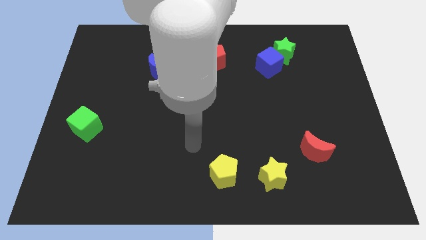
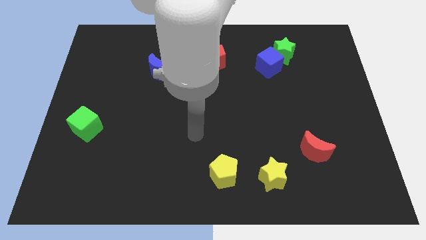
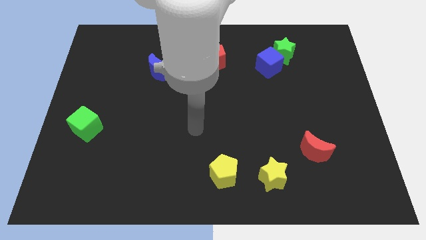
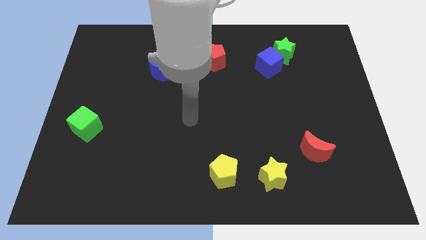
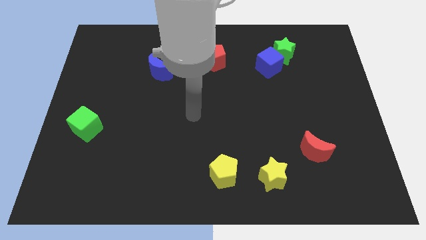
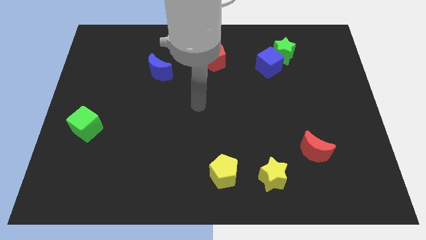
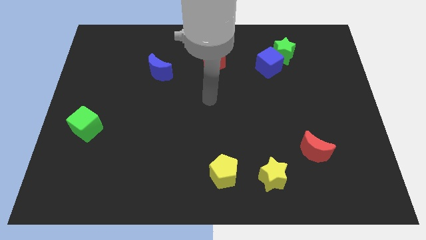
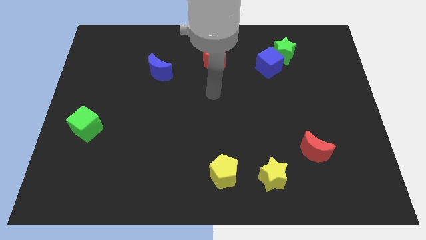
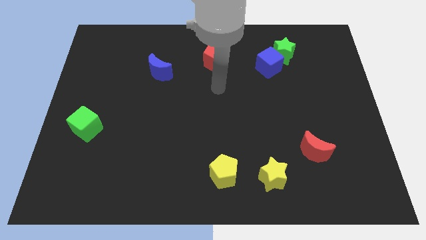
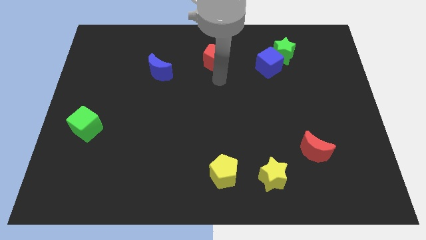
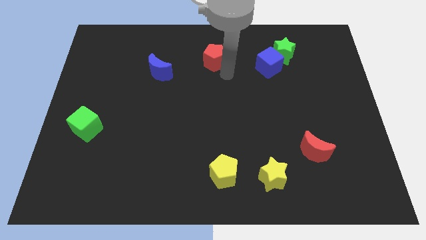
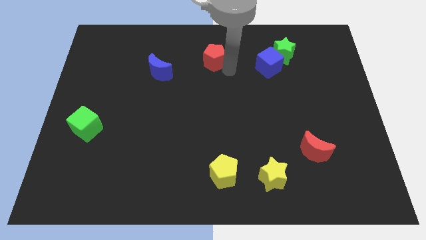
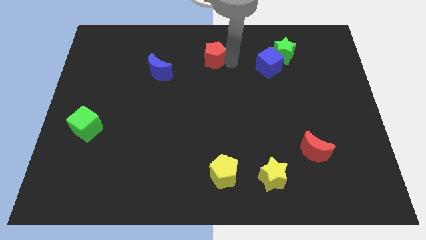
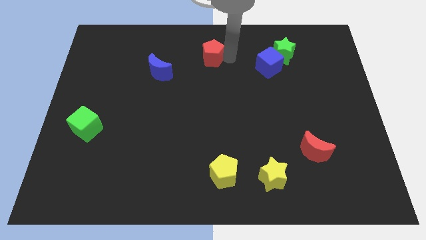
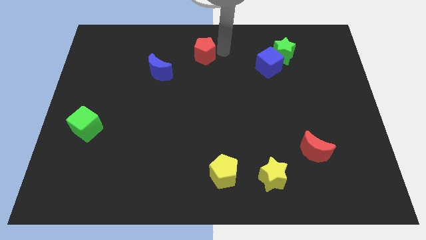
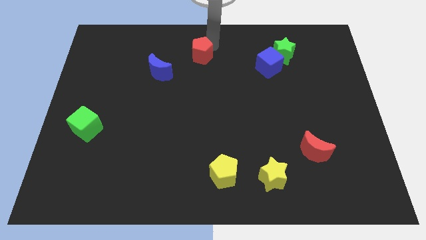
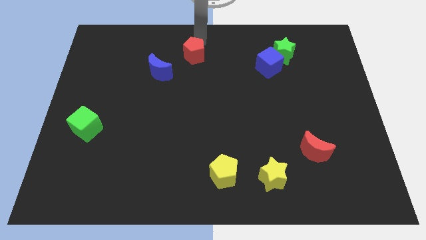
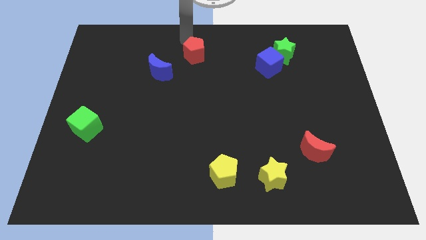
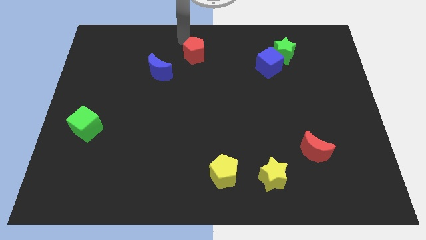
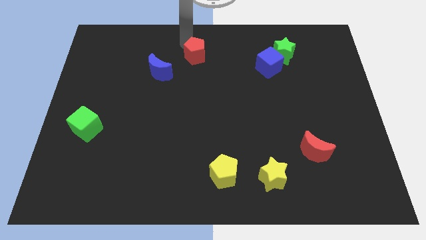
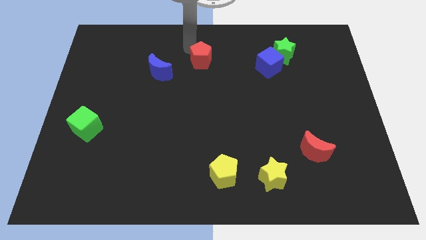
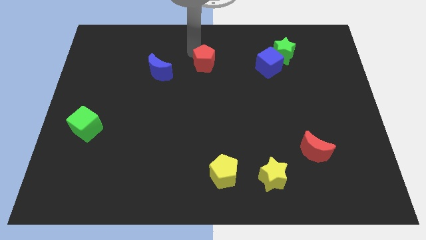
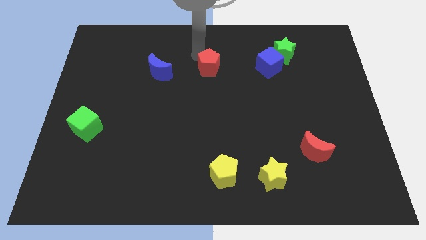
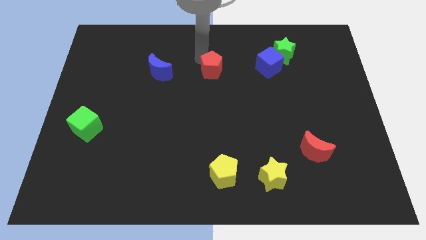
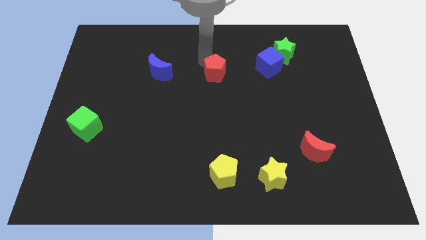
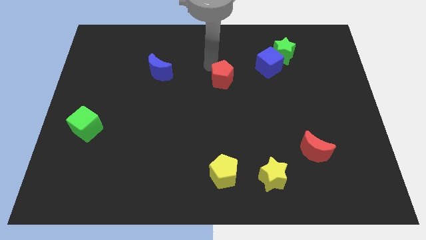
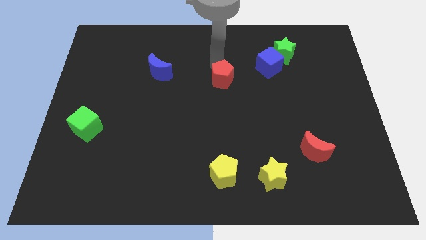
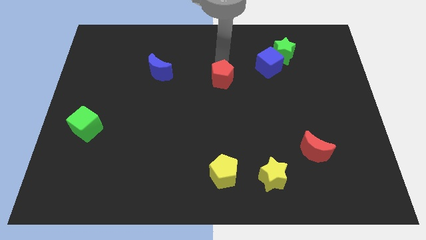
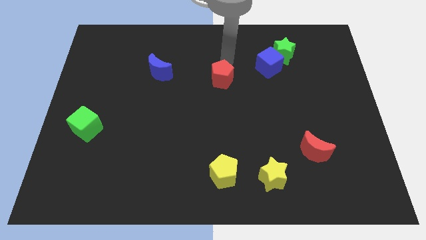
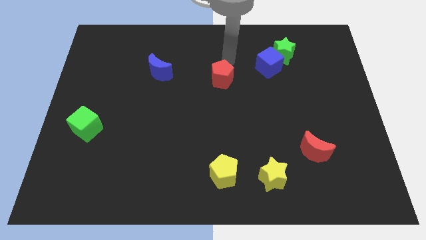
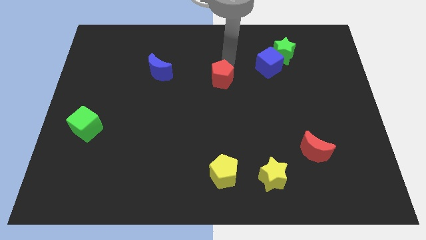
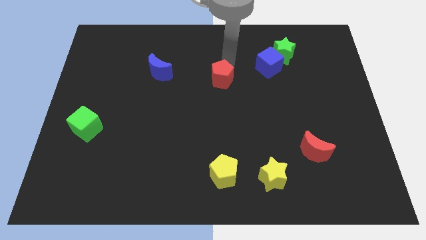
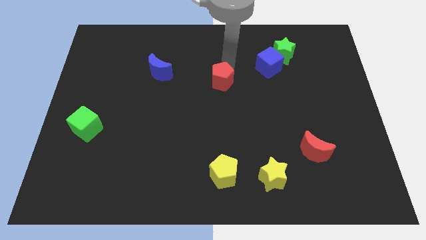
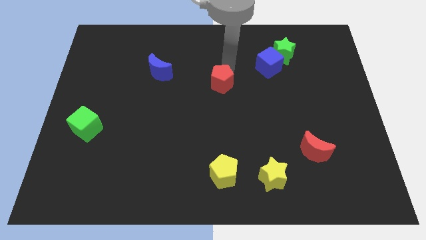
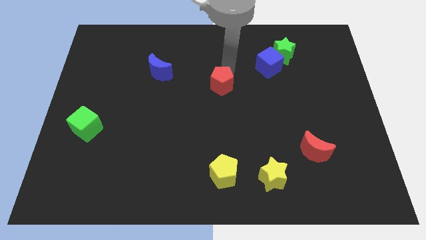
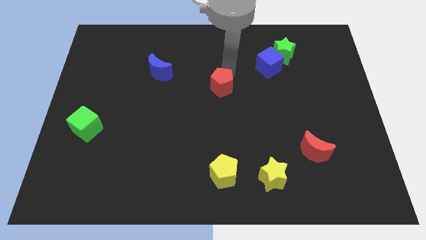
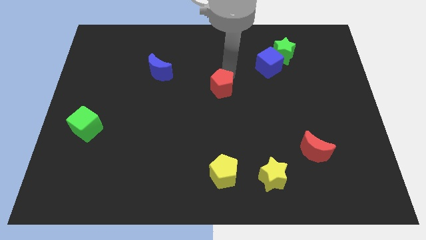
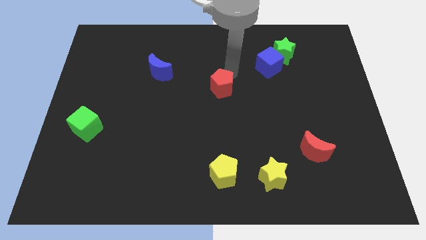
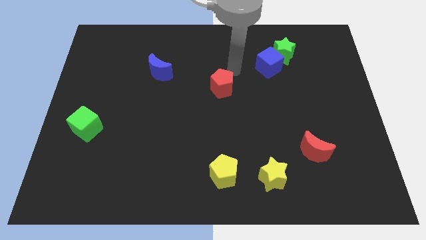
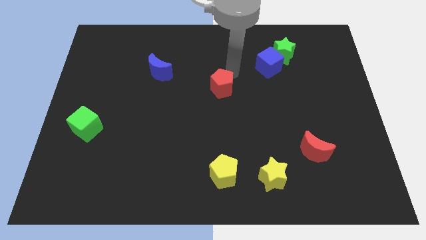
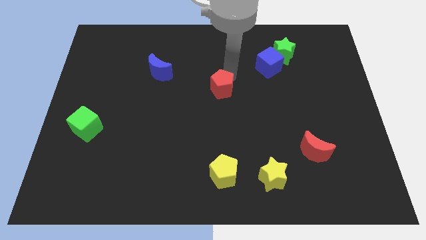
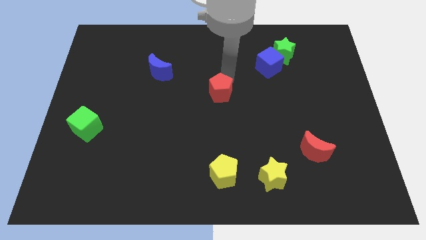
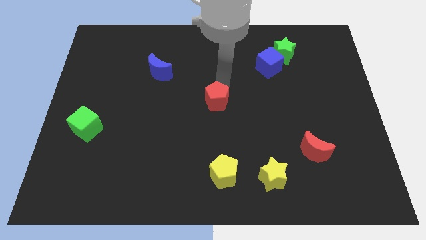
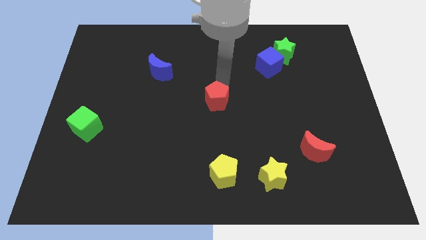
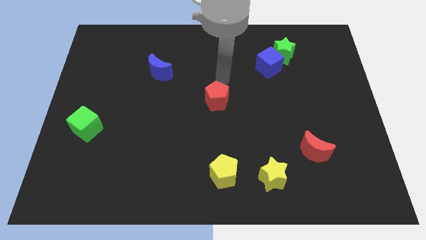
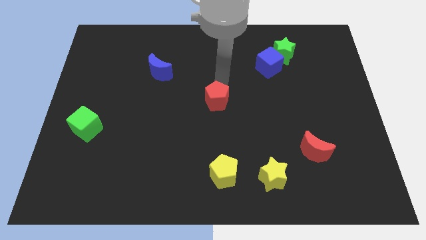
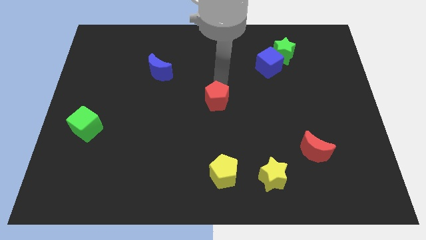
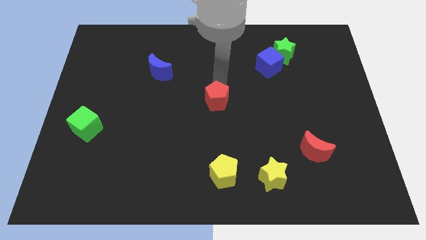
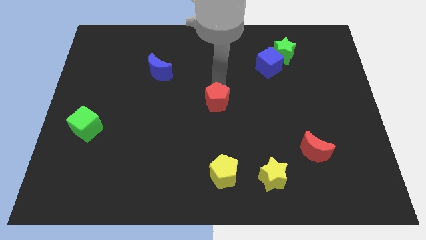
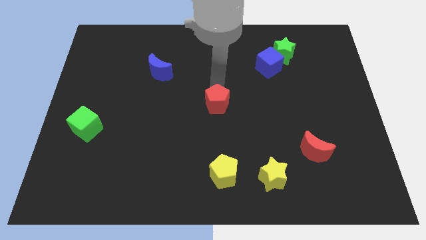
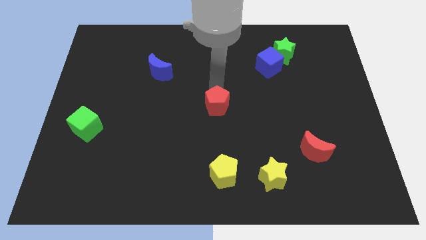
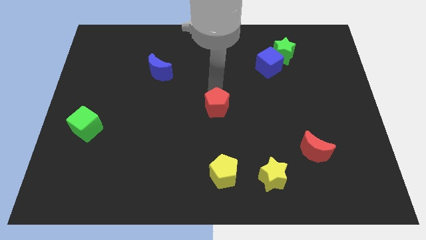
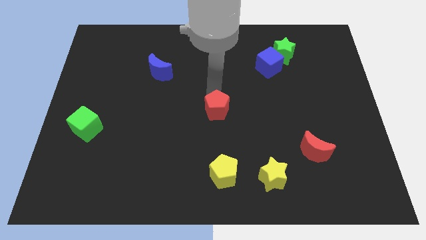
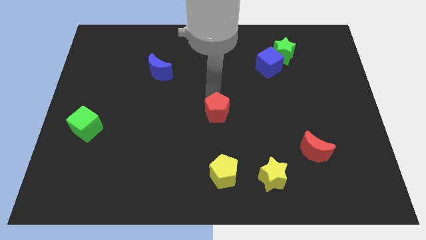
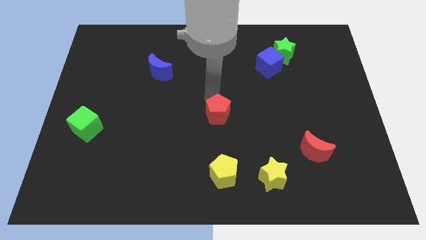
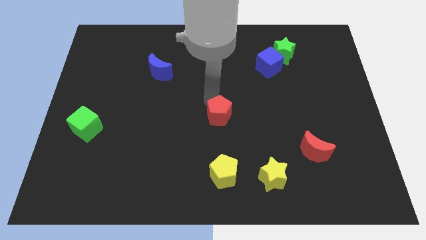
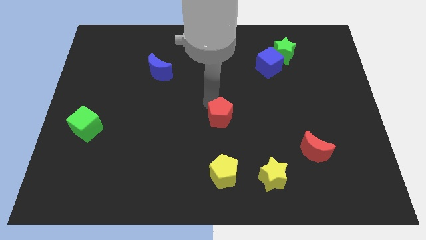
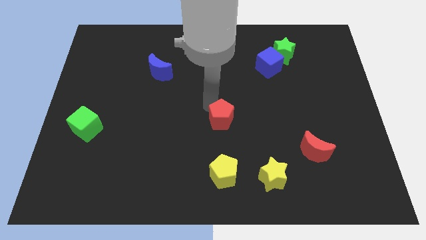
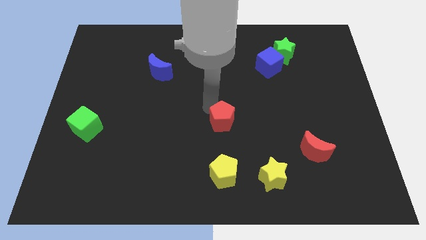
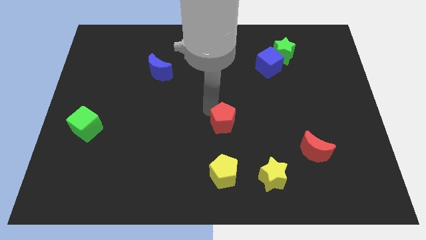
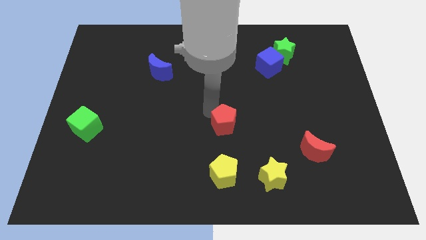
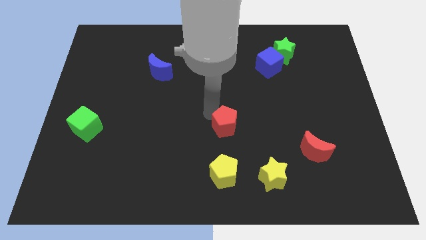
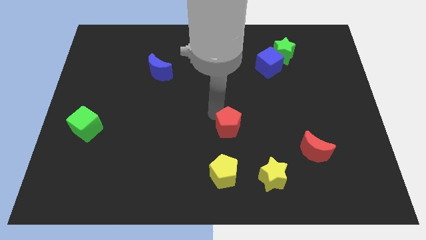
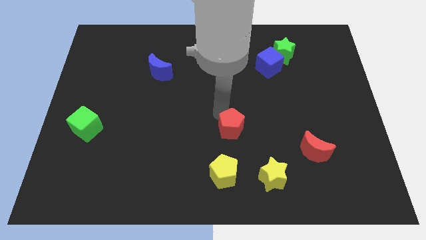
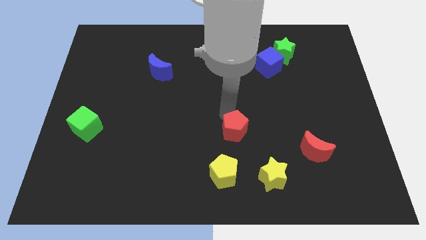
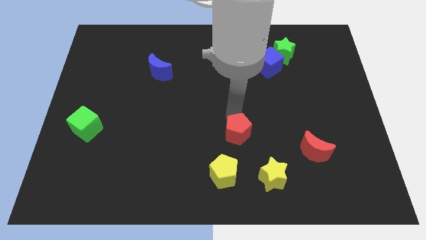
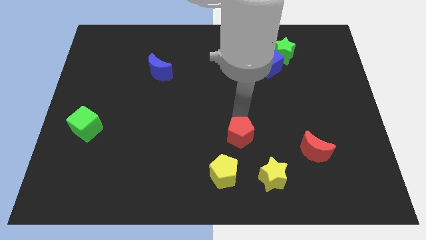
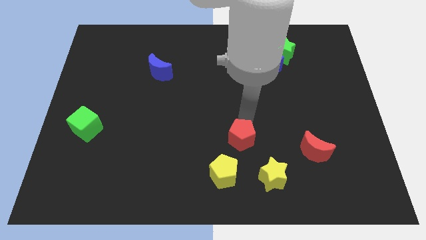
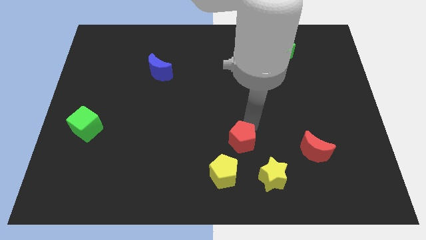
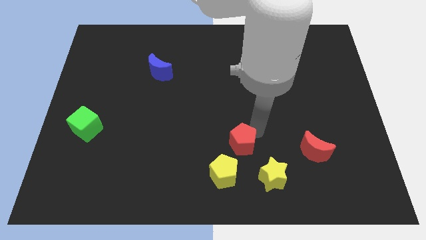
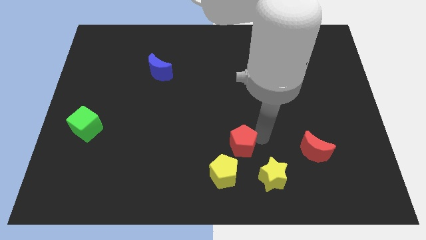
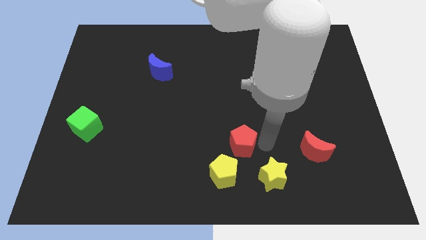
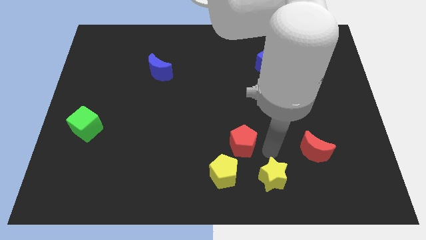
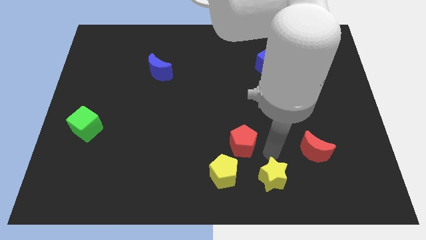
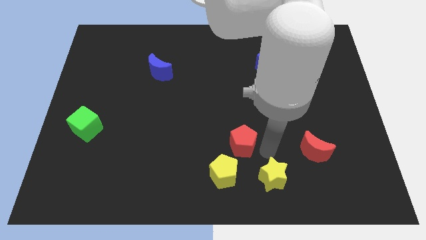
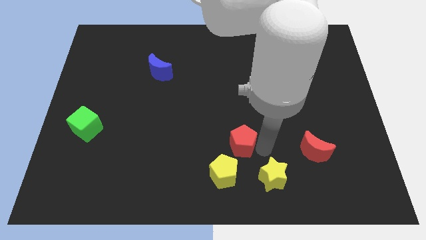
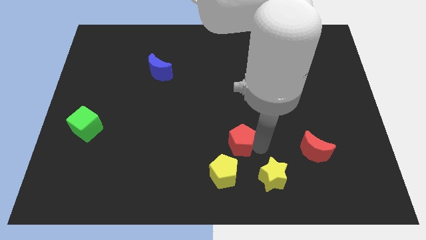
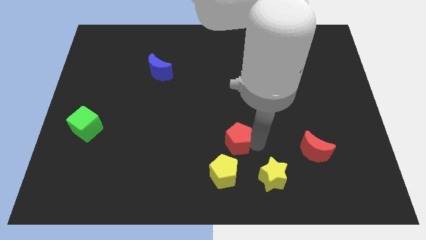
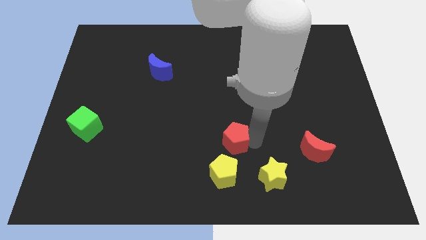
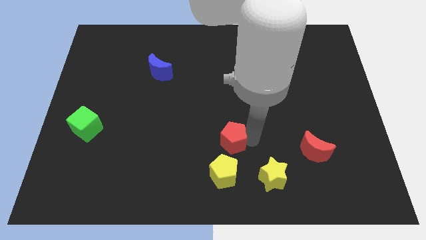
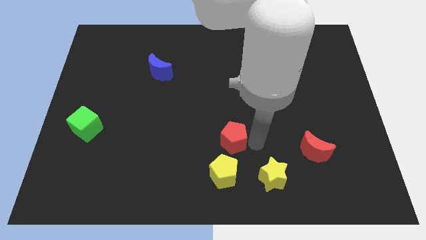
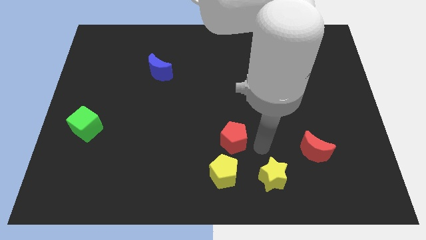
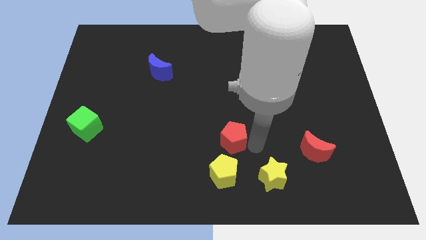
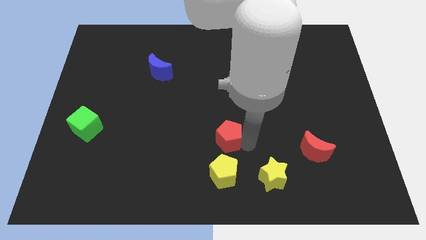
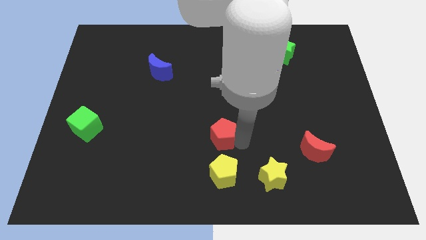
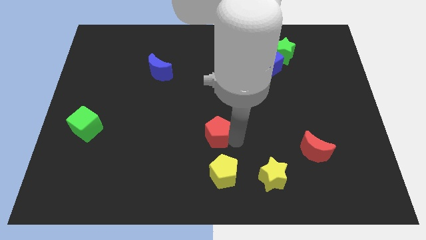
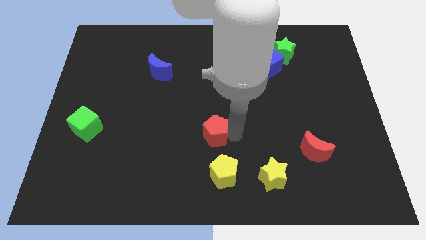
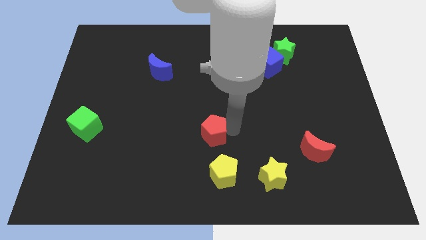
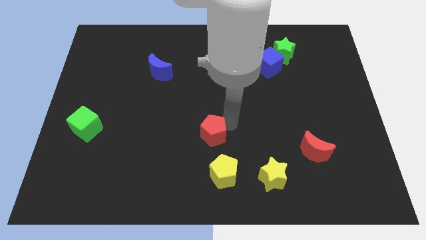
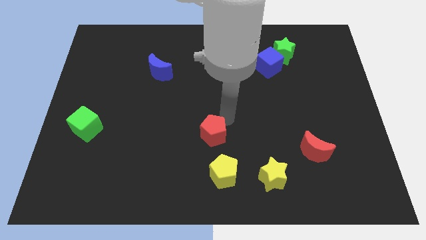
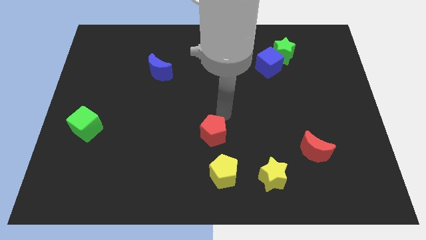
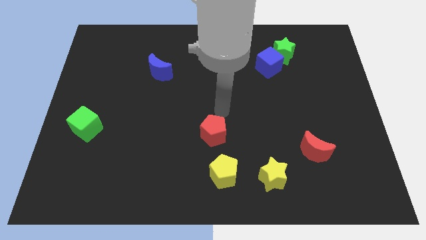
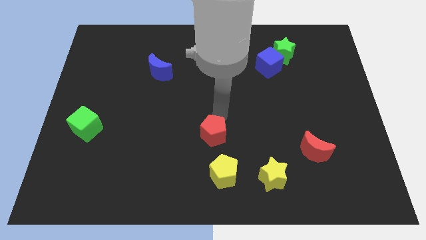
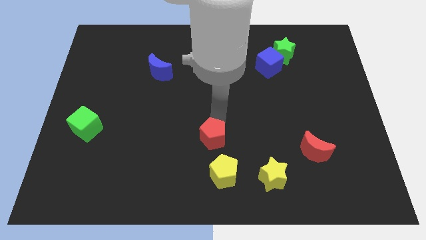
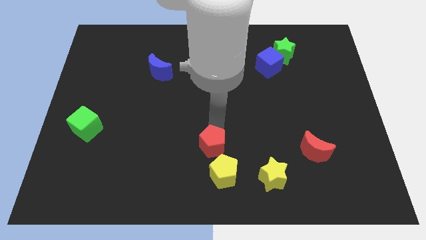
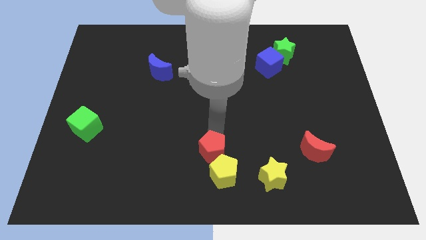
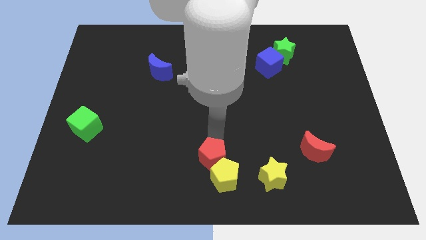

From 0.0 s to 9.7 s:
slide the red pentagon to the bottom side
